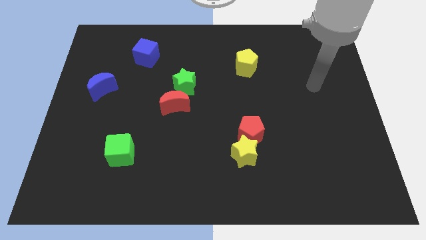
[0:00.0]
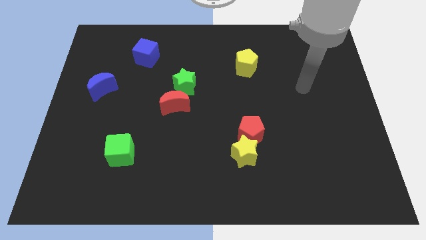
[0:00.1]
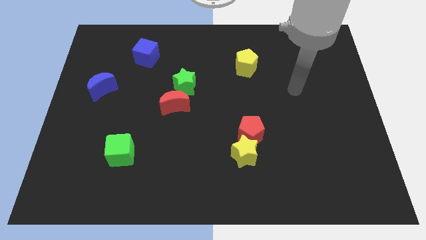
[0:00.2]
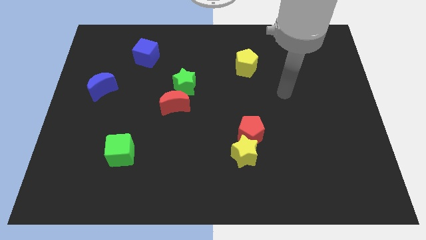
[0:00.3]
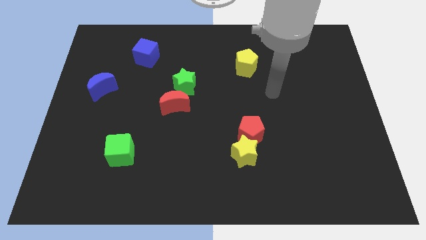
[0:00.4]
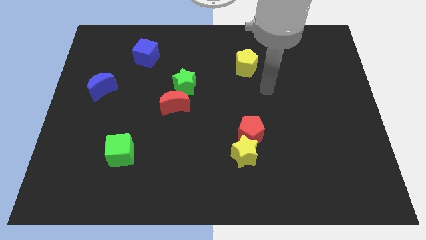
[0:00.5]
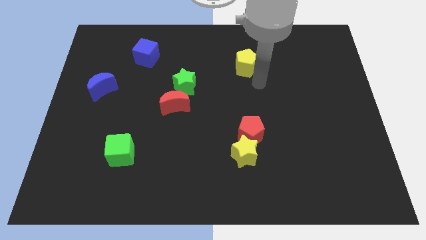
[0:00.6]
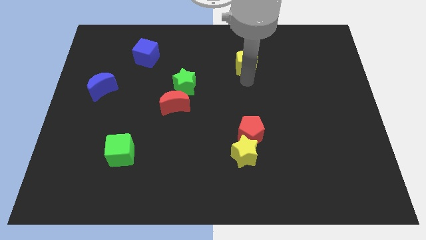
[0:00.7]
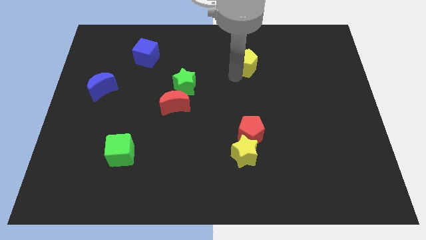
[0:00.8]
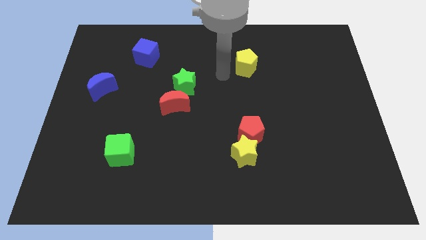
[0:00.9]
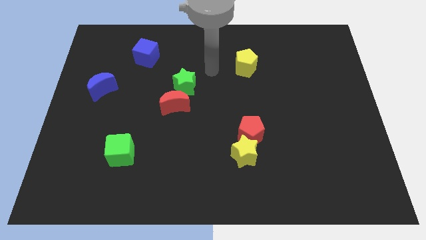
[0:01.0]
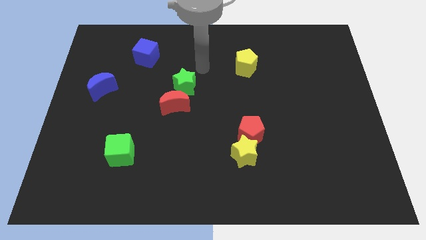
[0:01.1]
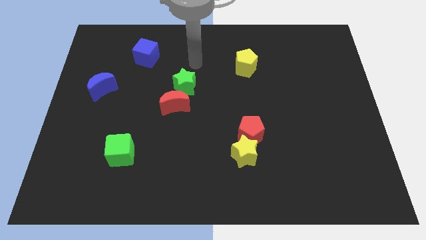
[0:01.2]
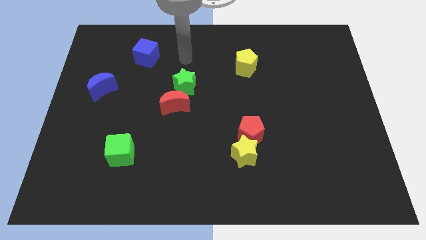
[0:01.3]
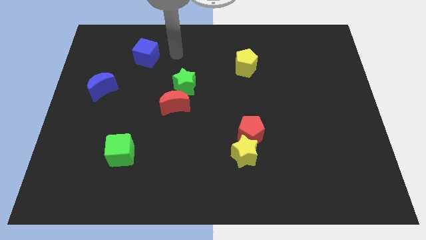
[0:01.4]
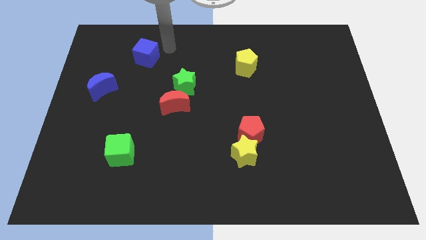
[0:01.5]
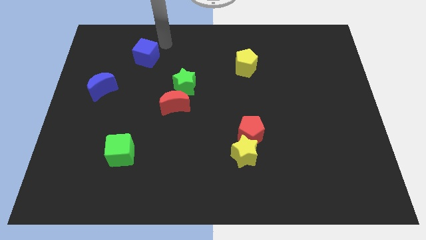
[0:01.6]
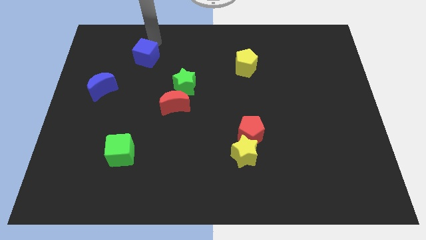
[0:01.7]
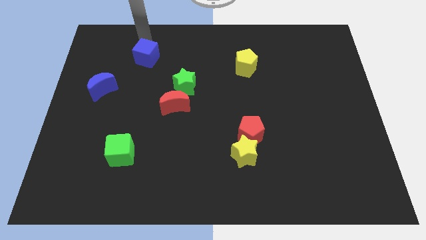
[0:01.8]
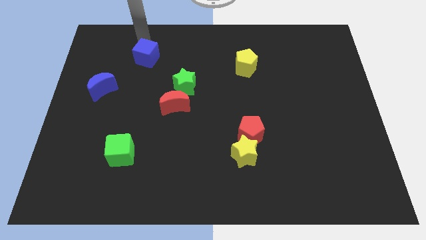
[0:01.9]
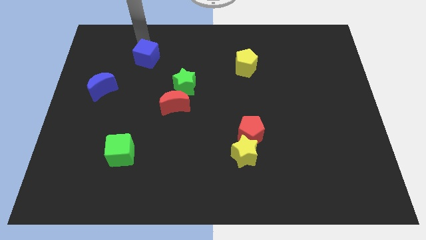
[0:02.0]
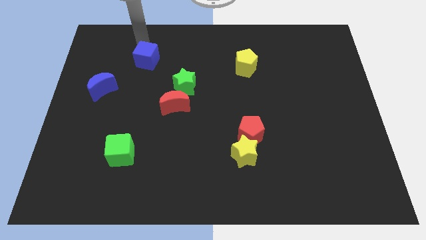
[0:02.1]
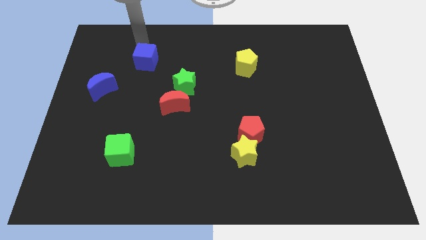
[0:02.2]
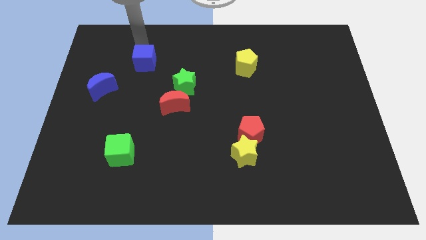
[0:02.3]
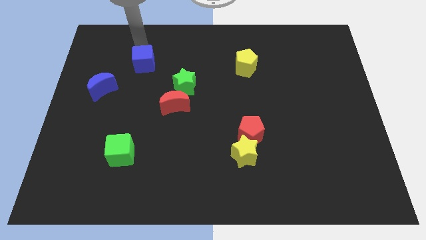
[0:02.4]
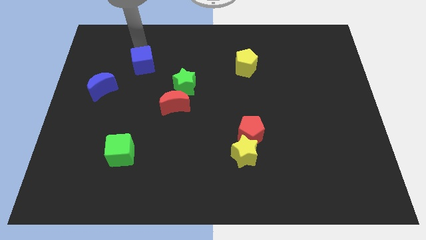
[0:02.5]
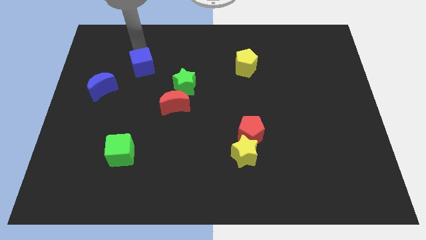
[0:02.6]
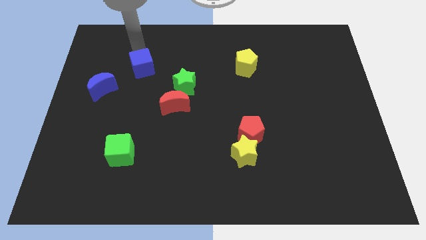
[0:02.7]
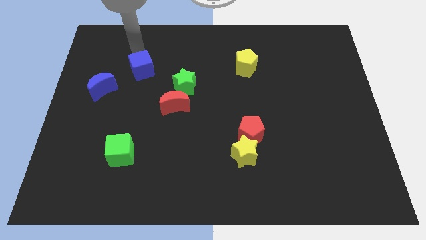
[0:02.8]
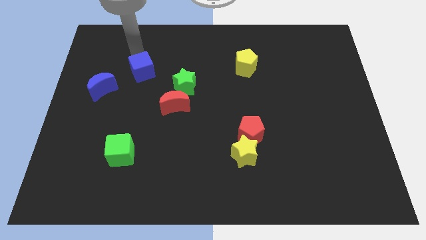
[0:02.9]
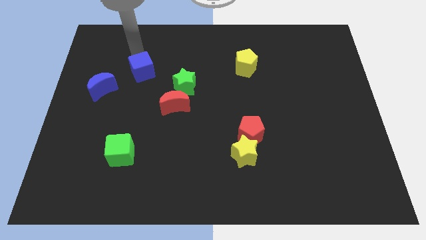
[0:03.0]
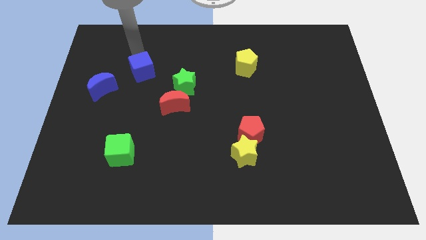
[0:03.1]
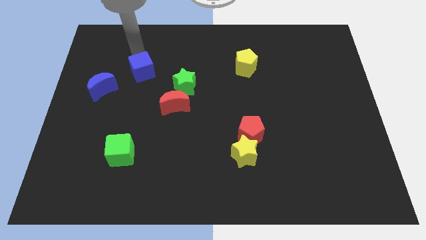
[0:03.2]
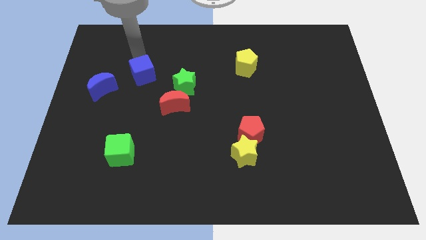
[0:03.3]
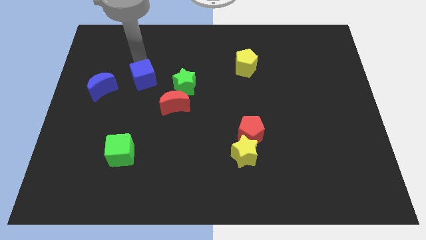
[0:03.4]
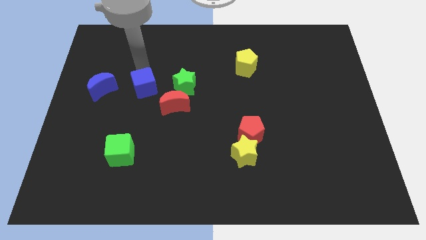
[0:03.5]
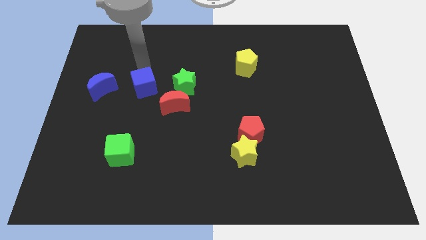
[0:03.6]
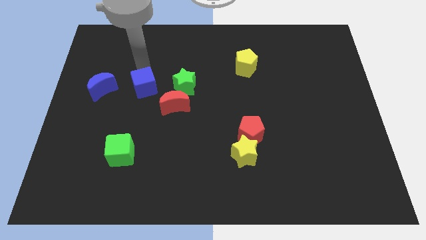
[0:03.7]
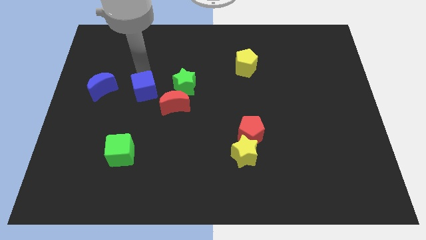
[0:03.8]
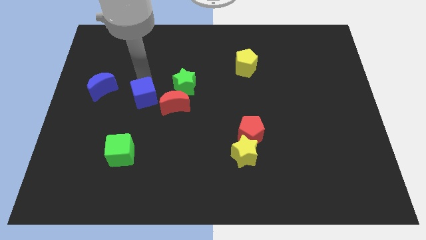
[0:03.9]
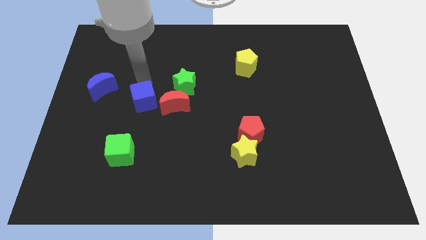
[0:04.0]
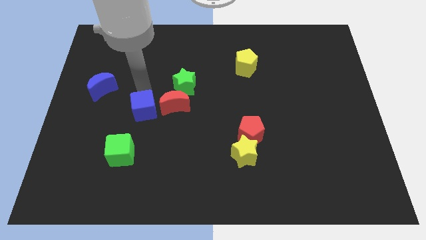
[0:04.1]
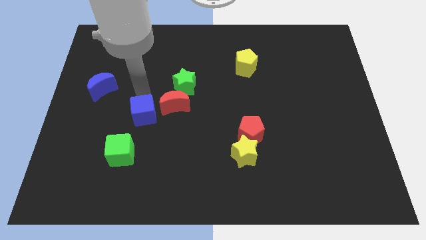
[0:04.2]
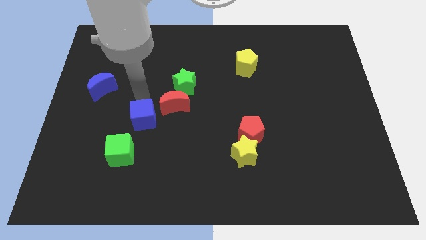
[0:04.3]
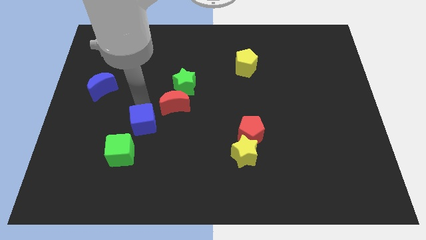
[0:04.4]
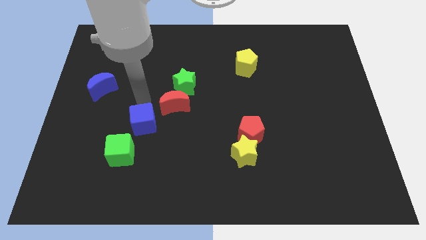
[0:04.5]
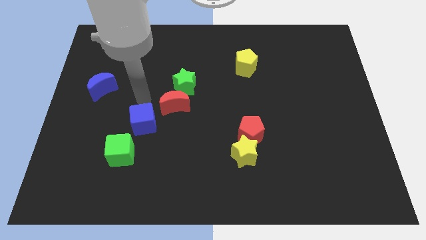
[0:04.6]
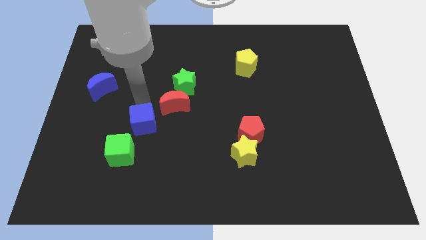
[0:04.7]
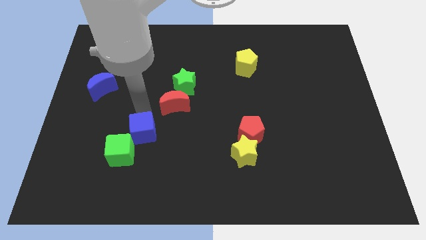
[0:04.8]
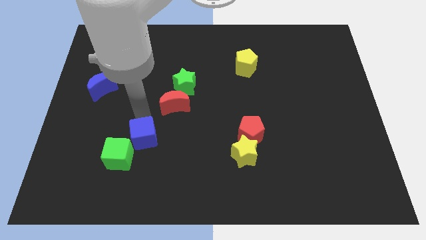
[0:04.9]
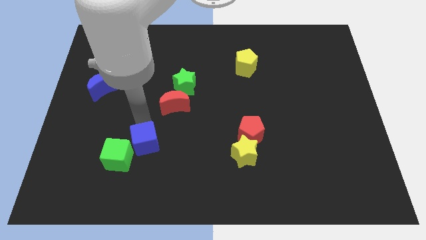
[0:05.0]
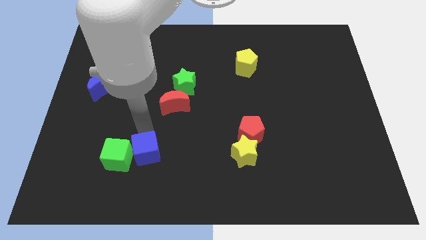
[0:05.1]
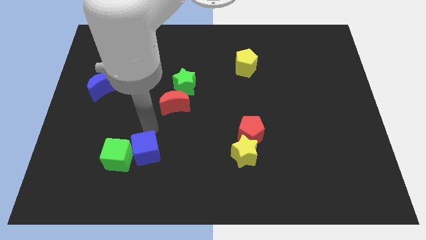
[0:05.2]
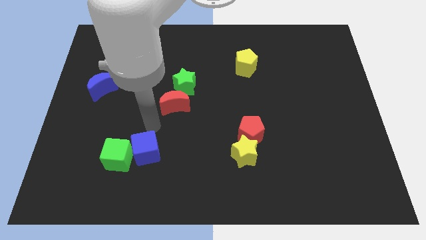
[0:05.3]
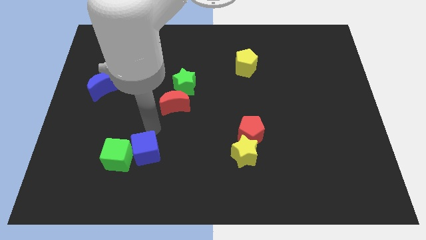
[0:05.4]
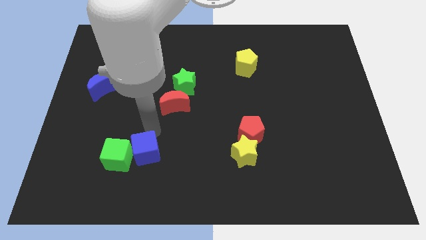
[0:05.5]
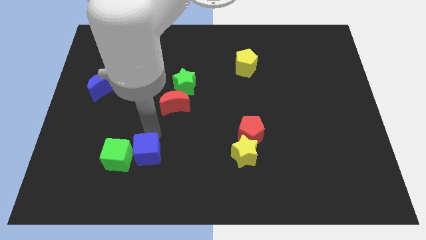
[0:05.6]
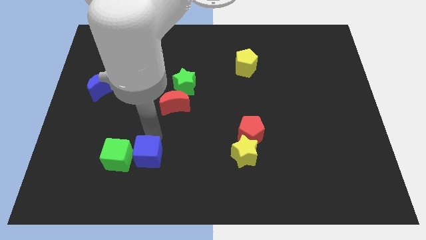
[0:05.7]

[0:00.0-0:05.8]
push the blue cube diagonally down and to the right of the green cube

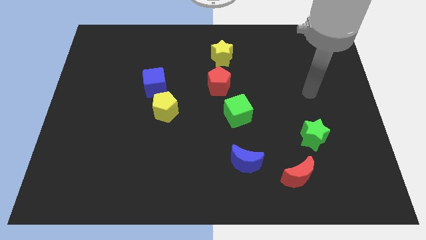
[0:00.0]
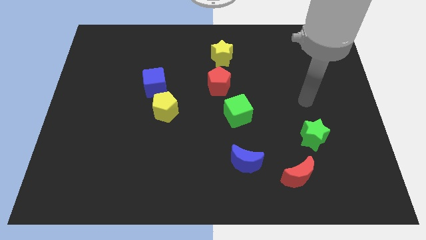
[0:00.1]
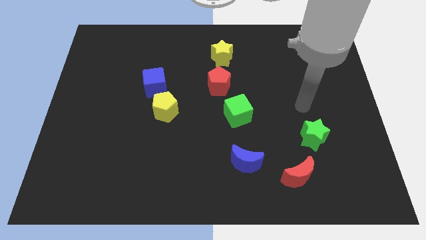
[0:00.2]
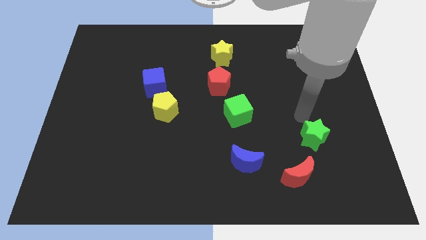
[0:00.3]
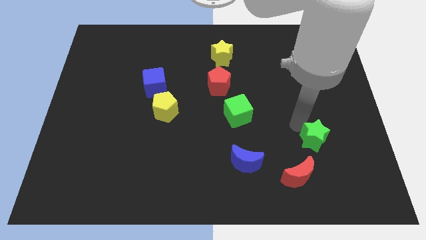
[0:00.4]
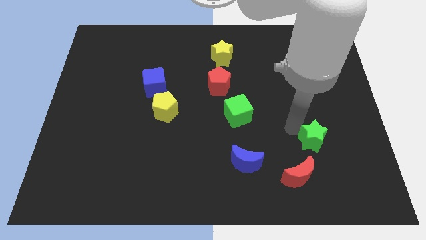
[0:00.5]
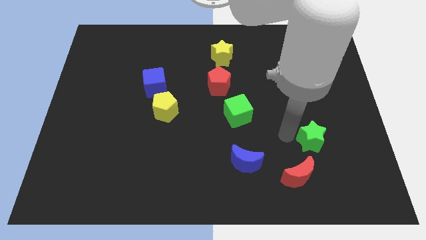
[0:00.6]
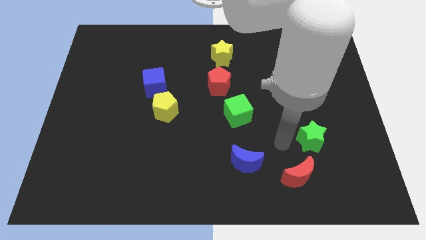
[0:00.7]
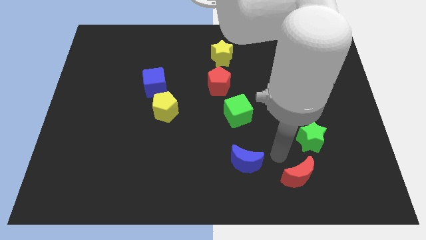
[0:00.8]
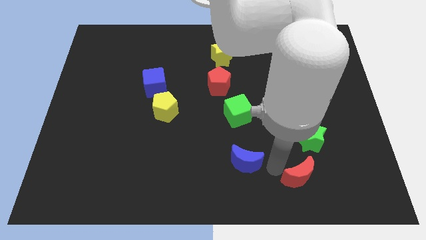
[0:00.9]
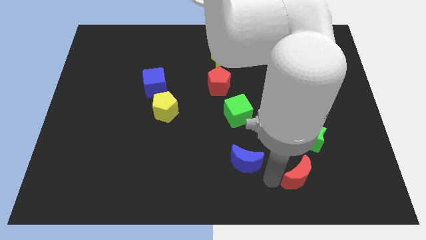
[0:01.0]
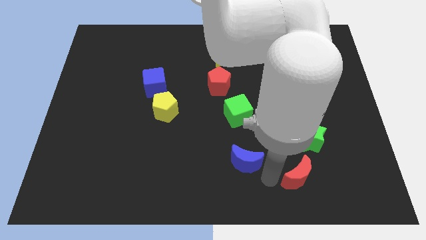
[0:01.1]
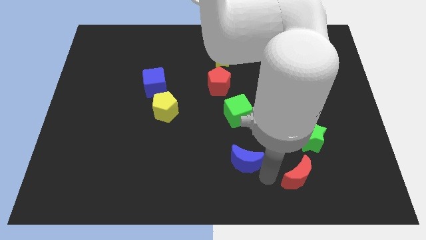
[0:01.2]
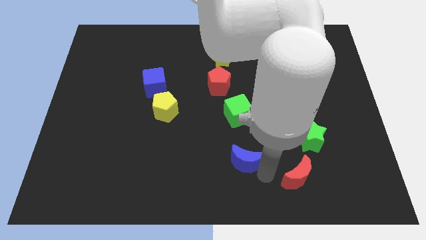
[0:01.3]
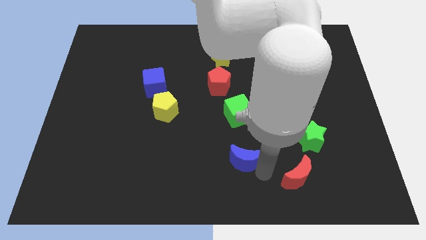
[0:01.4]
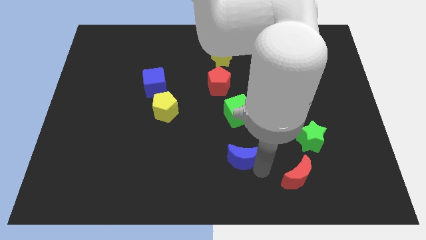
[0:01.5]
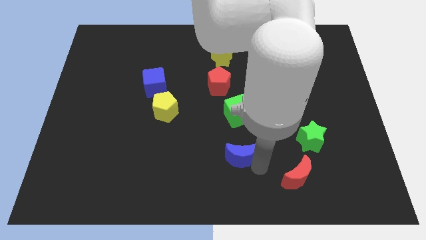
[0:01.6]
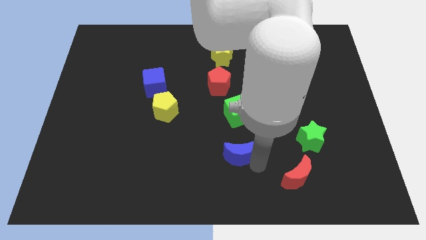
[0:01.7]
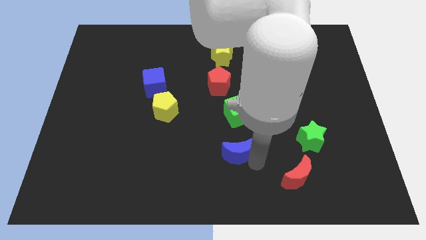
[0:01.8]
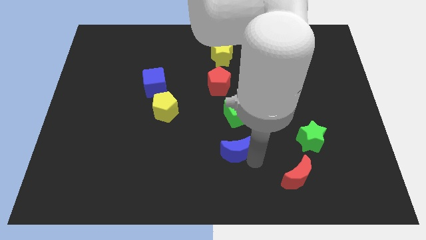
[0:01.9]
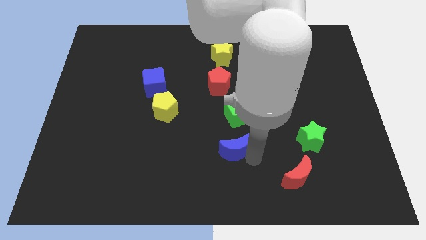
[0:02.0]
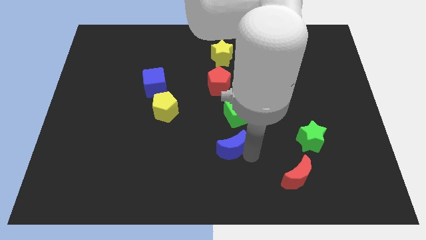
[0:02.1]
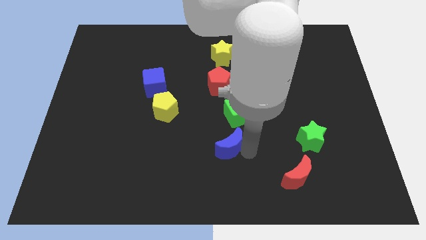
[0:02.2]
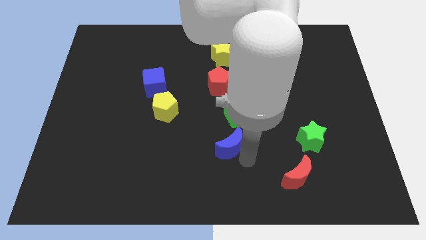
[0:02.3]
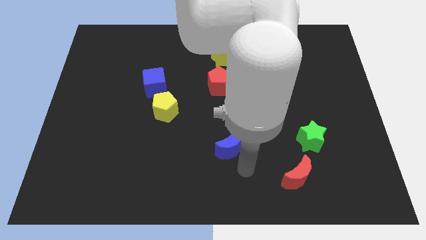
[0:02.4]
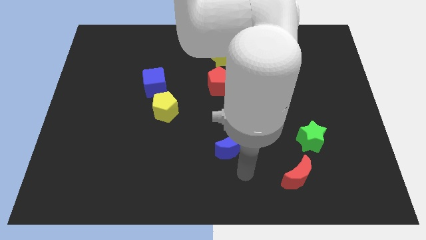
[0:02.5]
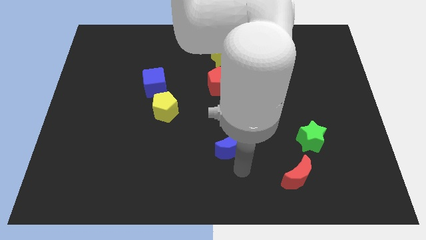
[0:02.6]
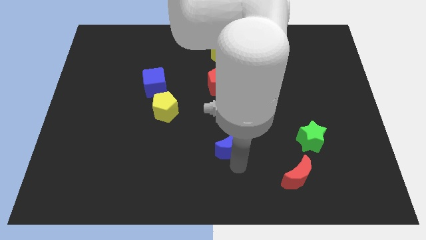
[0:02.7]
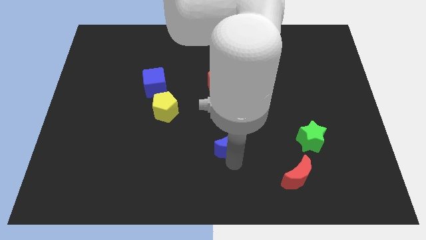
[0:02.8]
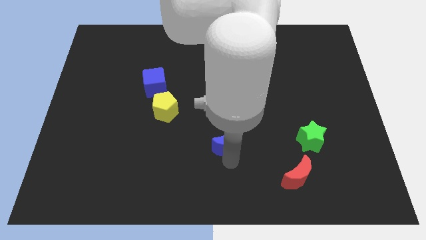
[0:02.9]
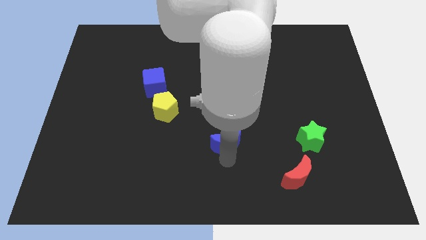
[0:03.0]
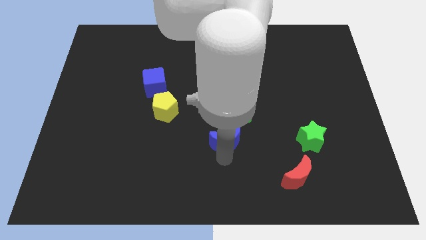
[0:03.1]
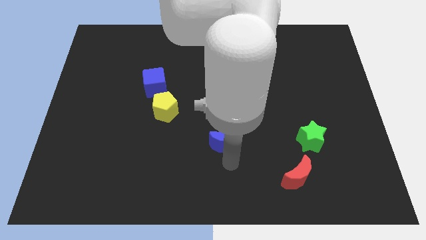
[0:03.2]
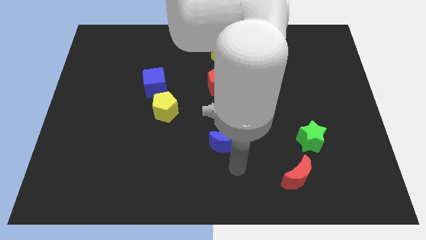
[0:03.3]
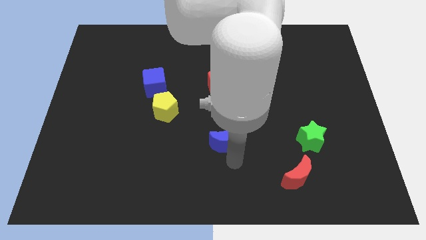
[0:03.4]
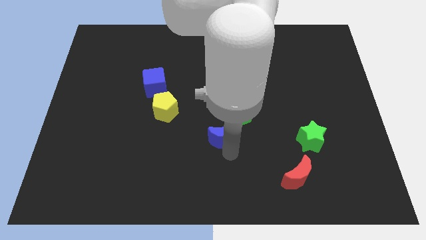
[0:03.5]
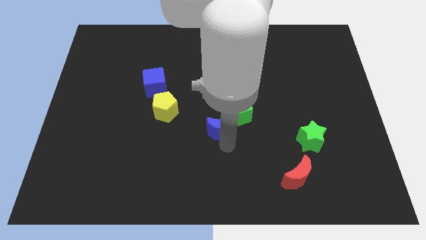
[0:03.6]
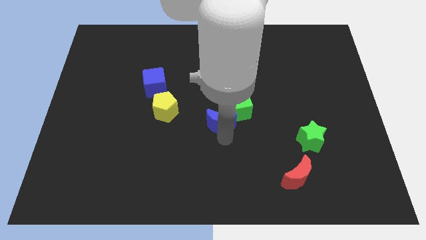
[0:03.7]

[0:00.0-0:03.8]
slide the blue moon to the right of the yellow pentagon
